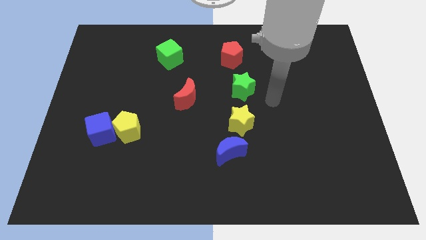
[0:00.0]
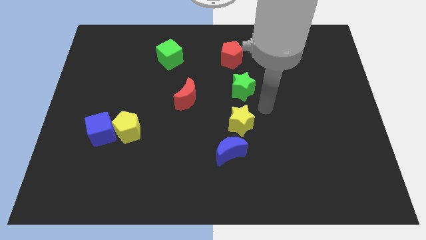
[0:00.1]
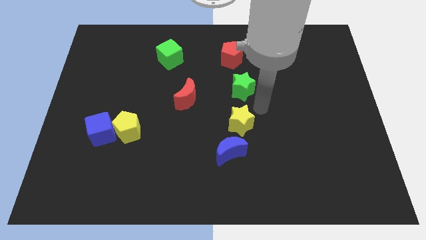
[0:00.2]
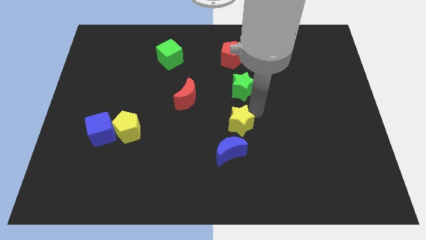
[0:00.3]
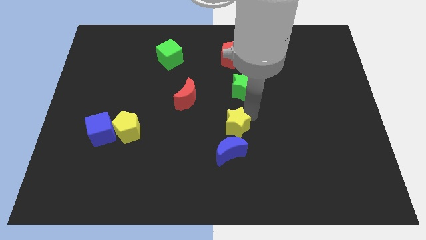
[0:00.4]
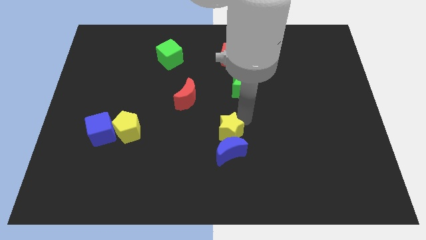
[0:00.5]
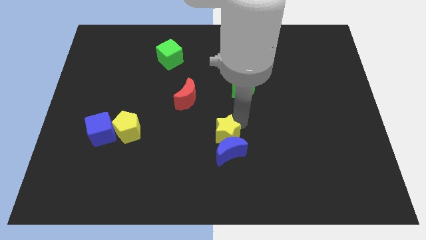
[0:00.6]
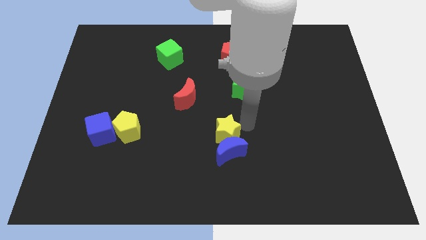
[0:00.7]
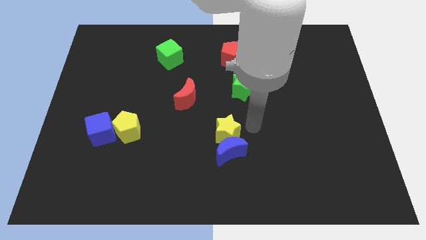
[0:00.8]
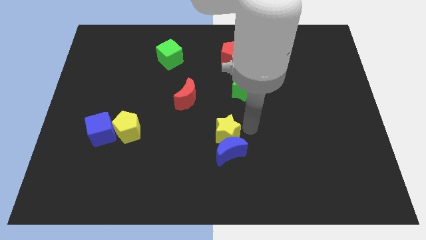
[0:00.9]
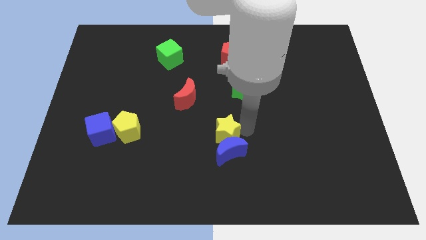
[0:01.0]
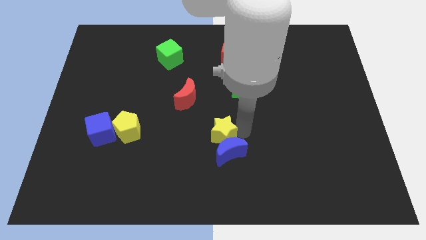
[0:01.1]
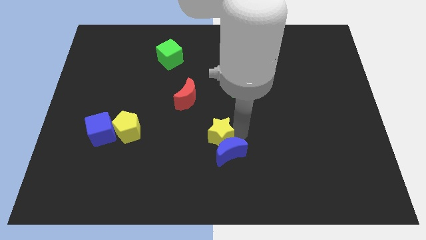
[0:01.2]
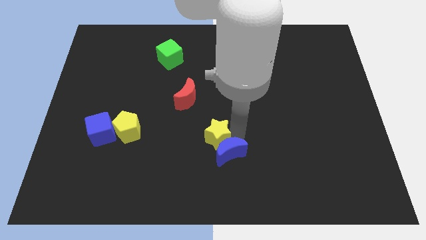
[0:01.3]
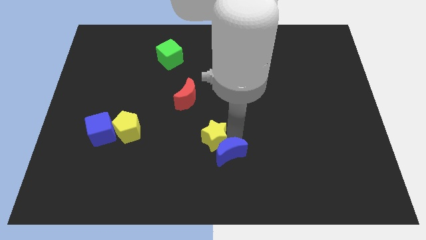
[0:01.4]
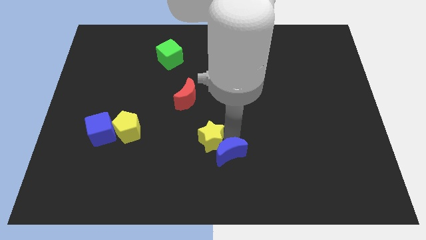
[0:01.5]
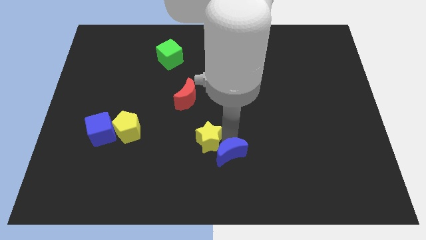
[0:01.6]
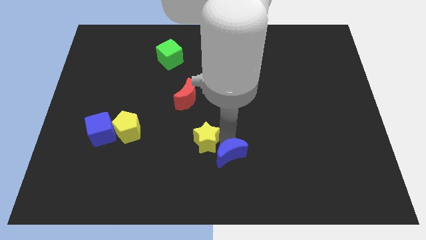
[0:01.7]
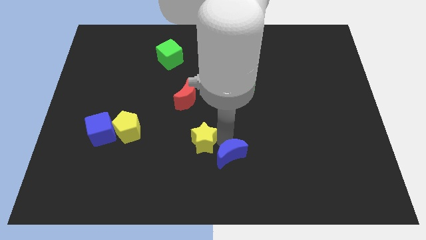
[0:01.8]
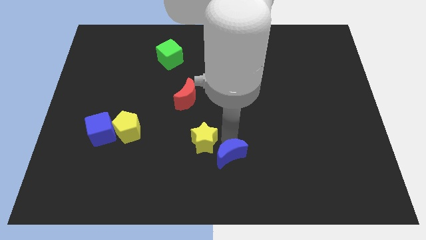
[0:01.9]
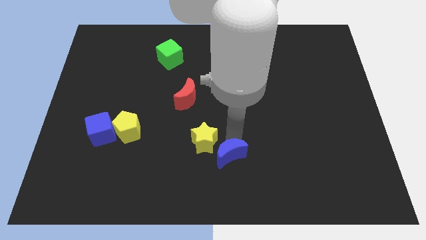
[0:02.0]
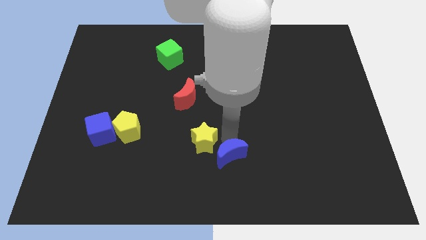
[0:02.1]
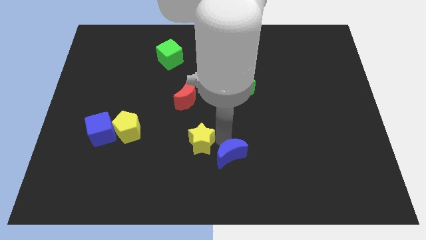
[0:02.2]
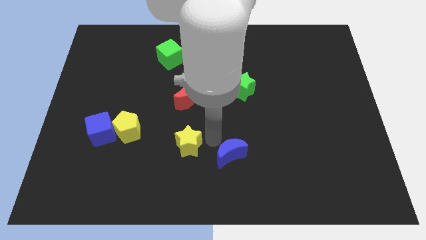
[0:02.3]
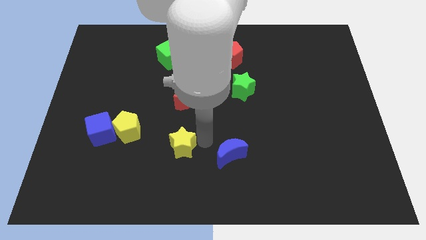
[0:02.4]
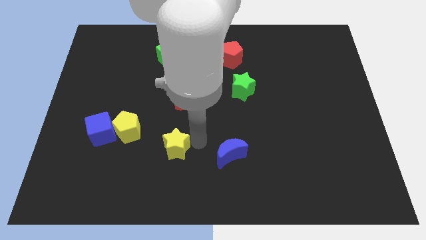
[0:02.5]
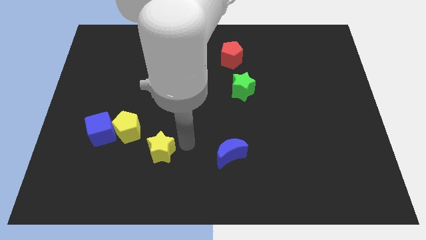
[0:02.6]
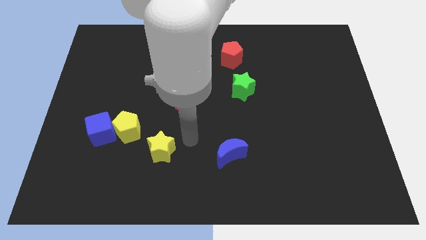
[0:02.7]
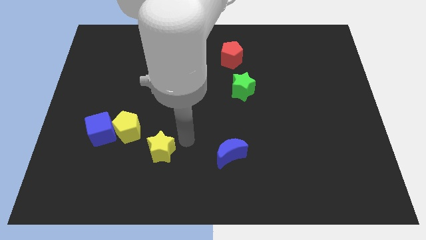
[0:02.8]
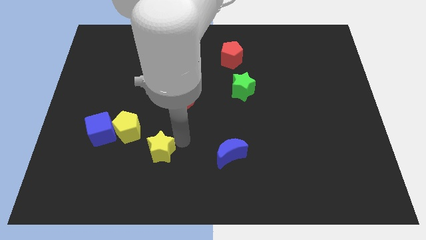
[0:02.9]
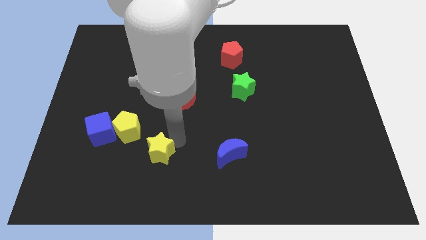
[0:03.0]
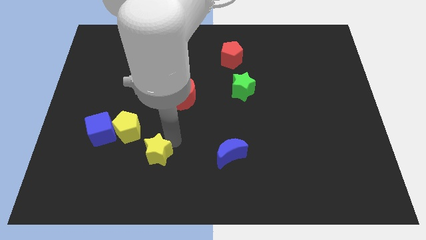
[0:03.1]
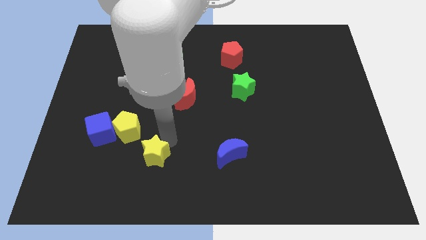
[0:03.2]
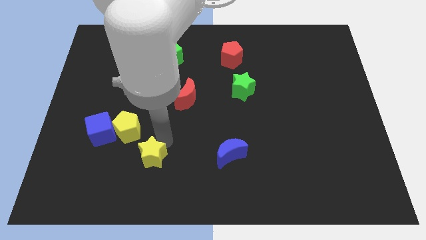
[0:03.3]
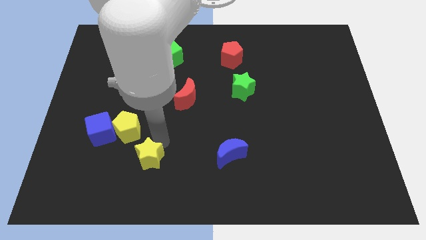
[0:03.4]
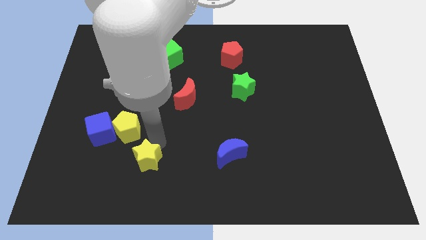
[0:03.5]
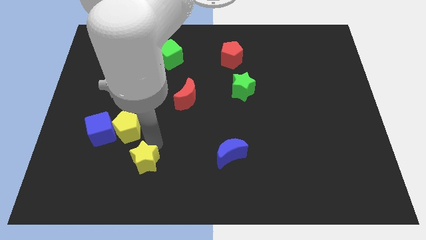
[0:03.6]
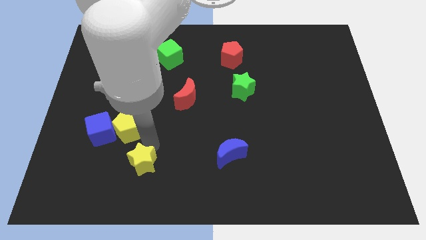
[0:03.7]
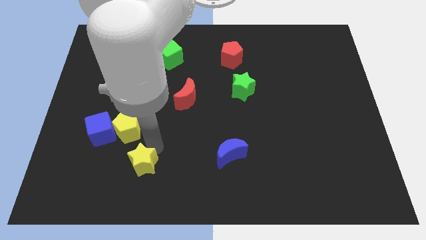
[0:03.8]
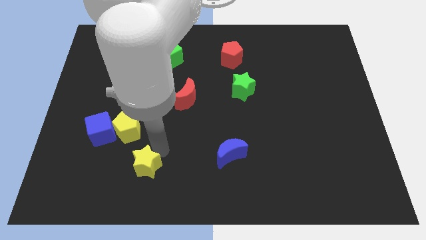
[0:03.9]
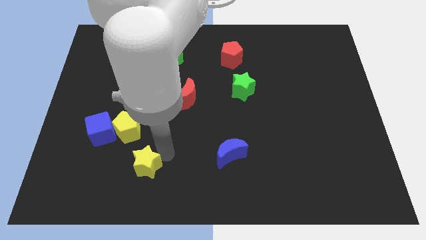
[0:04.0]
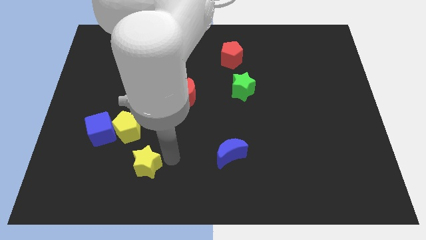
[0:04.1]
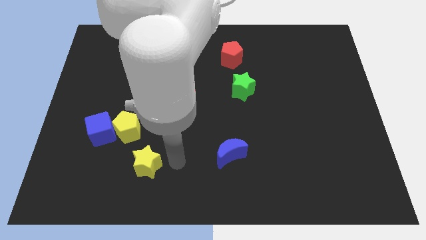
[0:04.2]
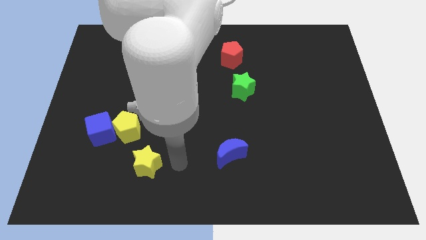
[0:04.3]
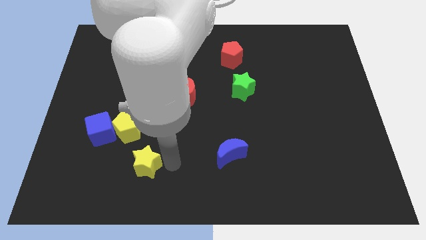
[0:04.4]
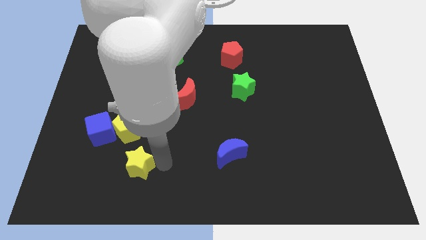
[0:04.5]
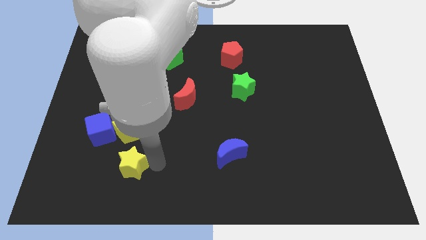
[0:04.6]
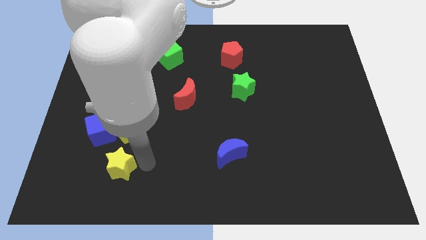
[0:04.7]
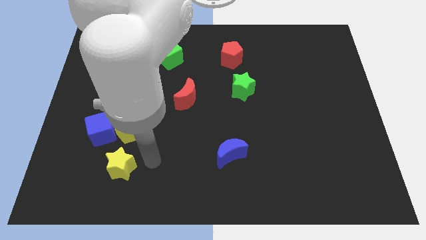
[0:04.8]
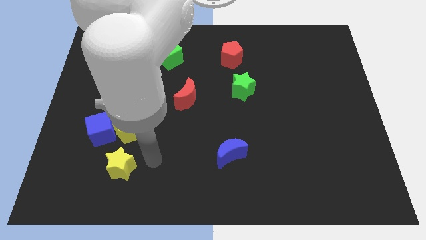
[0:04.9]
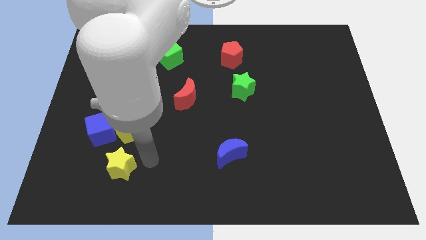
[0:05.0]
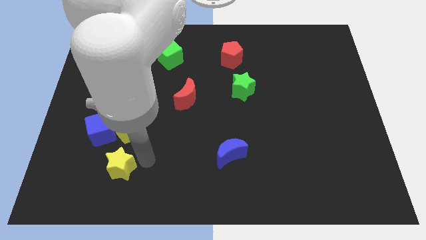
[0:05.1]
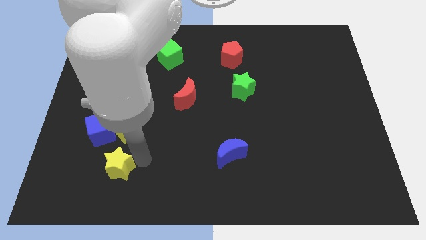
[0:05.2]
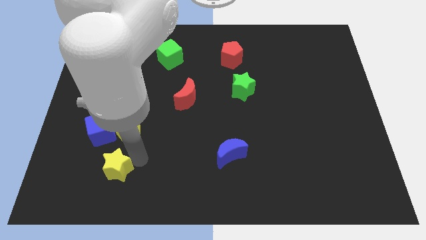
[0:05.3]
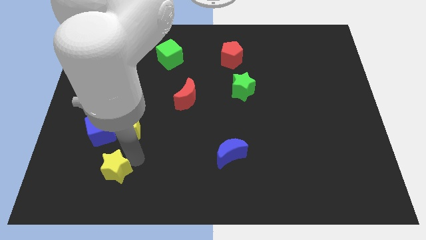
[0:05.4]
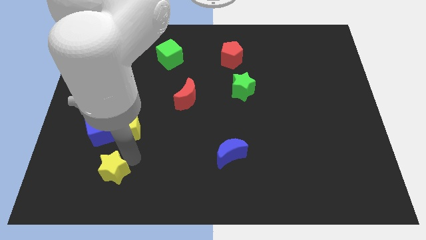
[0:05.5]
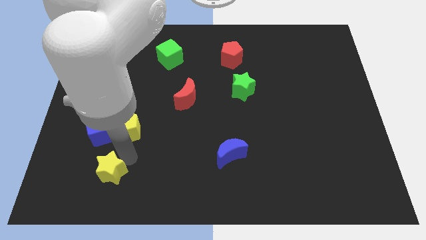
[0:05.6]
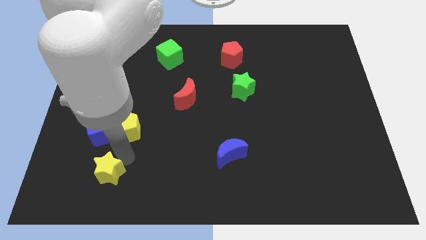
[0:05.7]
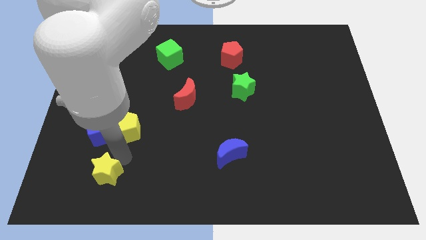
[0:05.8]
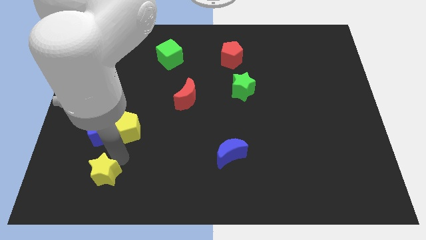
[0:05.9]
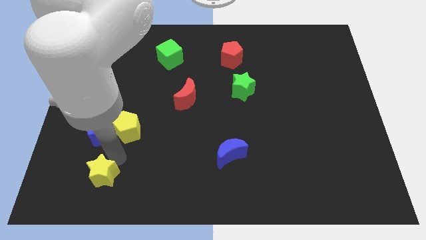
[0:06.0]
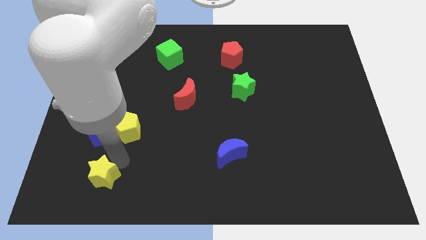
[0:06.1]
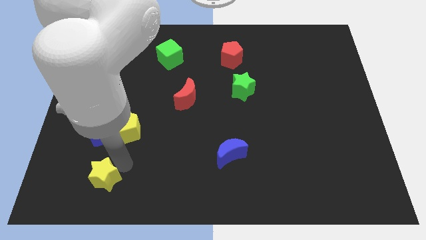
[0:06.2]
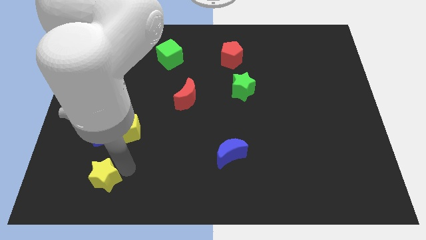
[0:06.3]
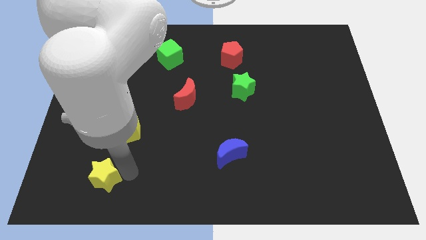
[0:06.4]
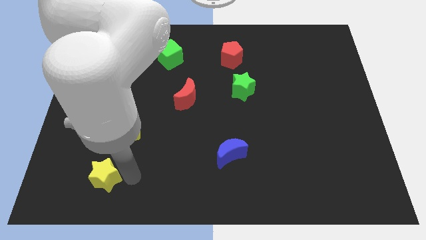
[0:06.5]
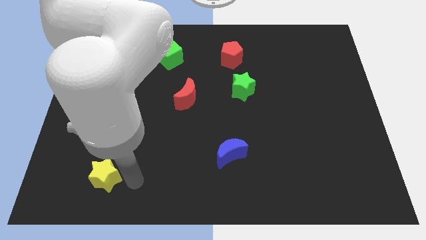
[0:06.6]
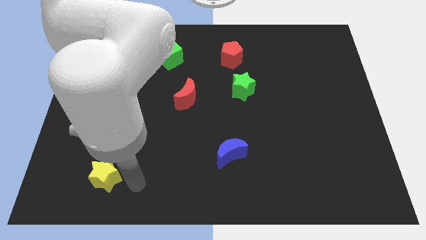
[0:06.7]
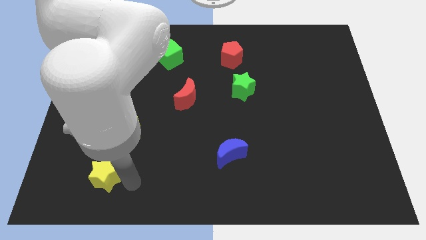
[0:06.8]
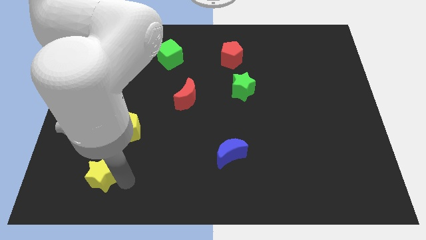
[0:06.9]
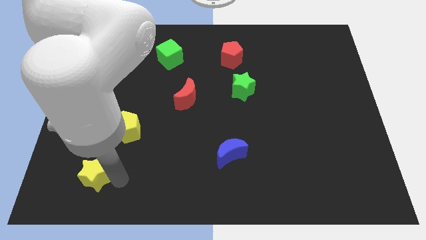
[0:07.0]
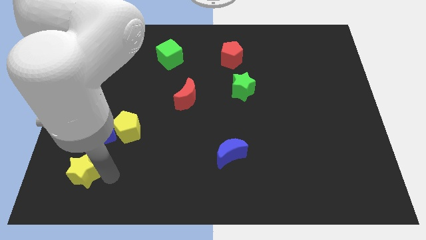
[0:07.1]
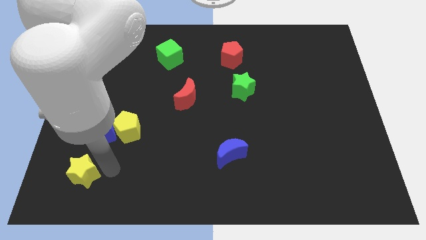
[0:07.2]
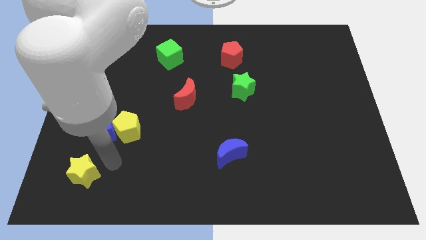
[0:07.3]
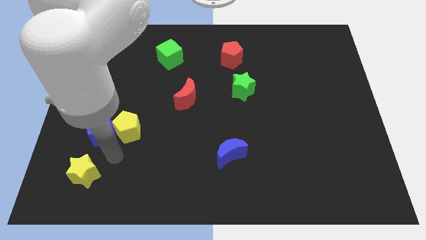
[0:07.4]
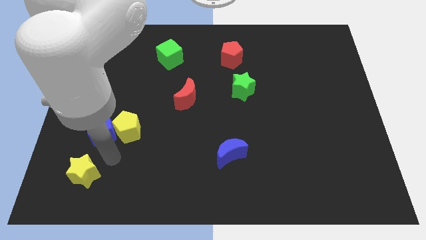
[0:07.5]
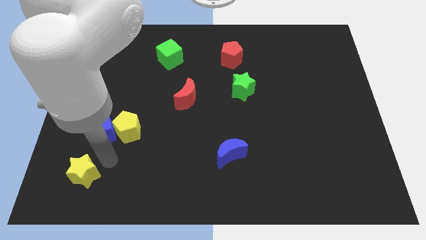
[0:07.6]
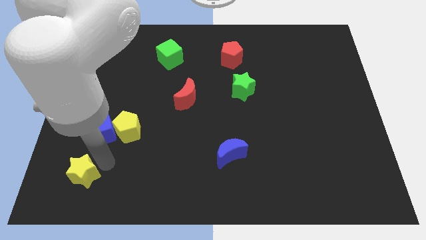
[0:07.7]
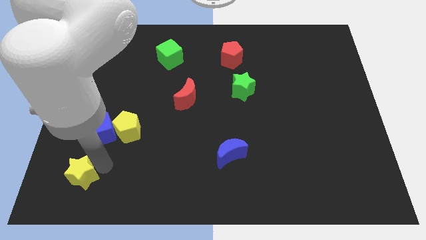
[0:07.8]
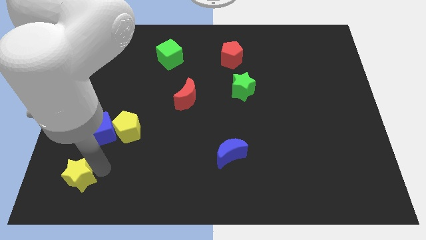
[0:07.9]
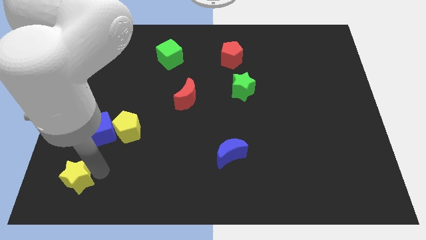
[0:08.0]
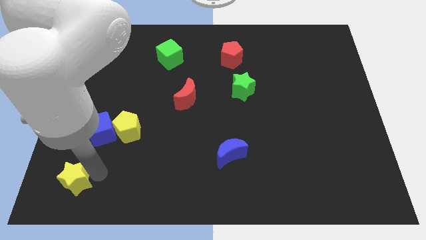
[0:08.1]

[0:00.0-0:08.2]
put the yellow star to the lower left corner
